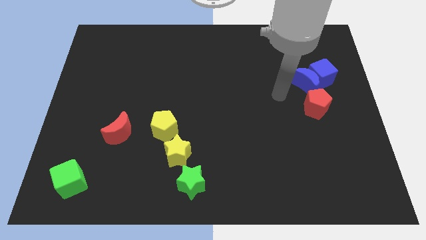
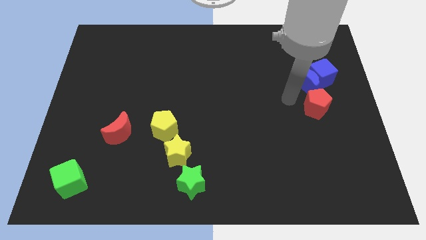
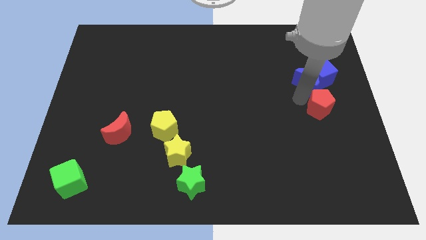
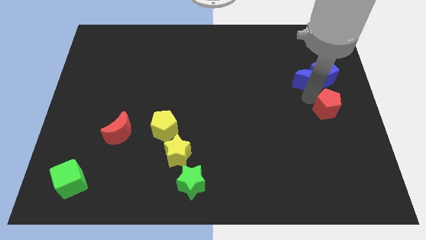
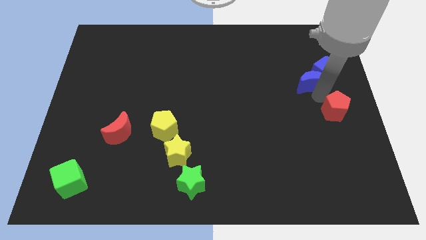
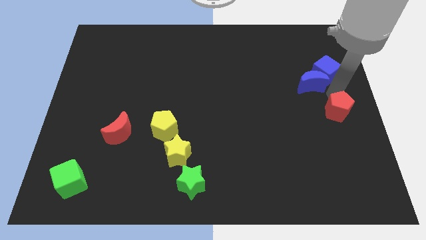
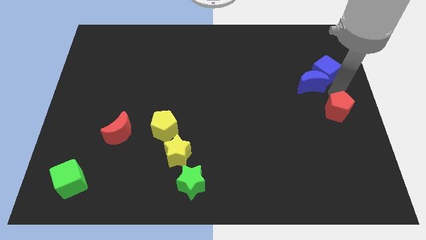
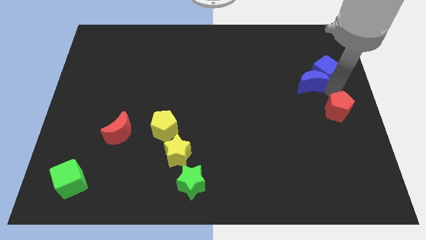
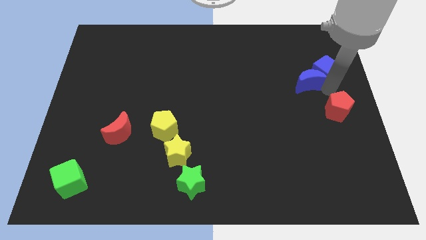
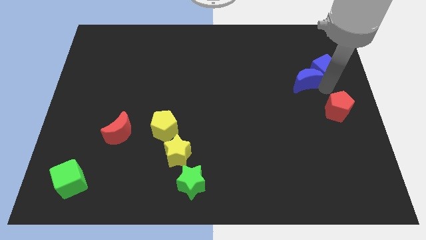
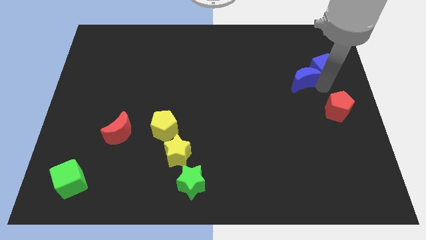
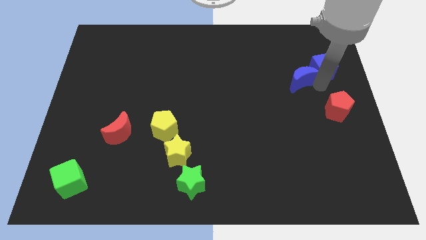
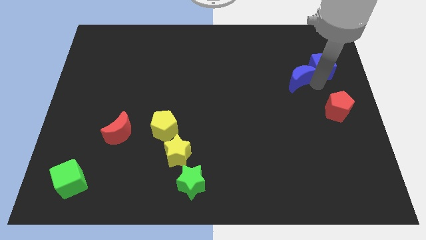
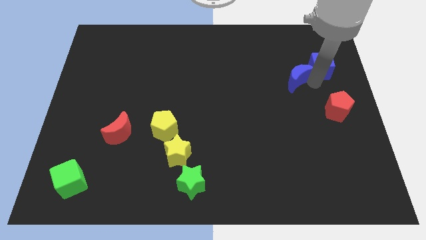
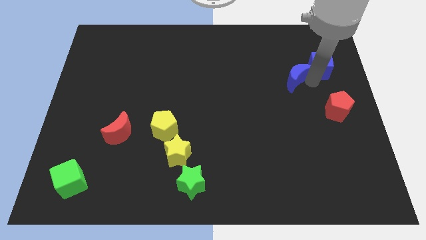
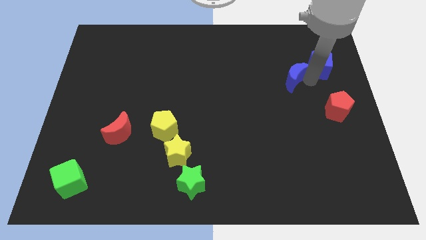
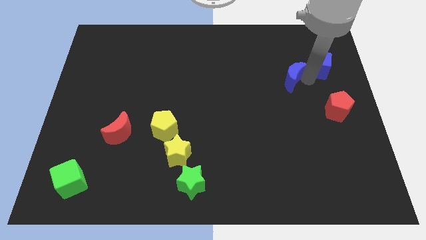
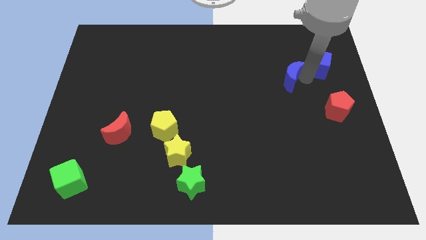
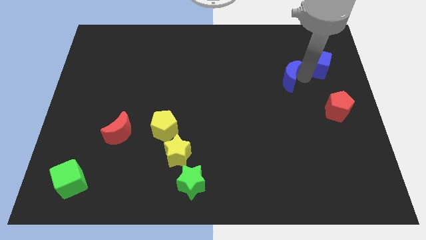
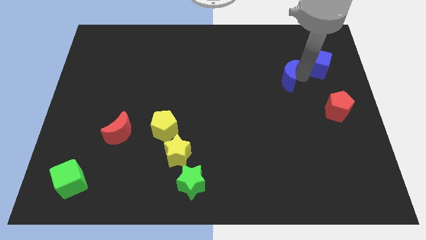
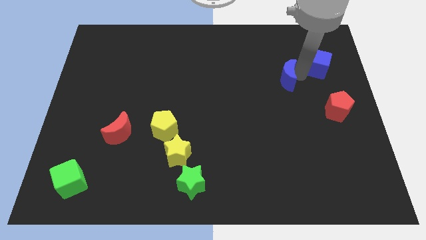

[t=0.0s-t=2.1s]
separate the blue moon from the blue cube and red pentagon

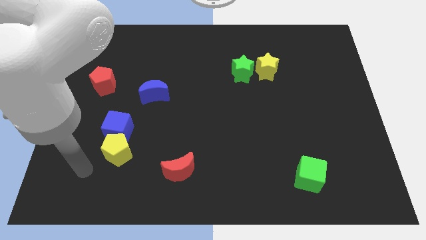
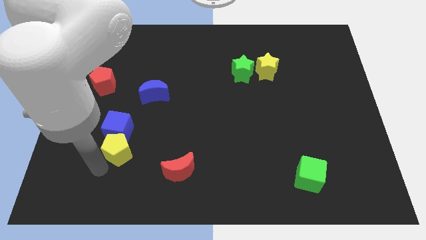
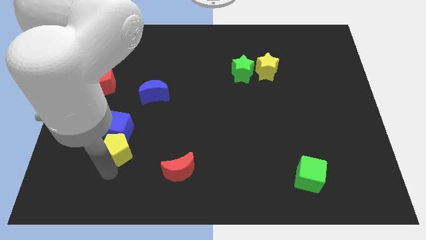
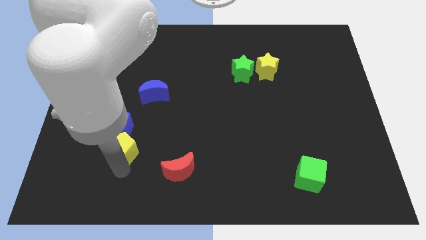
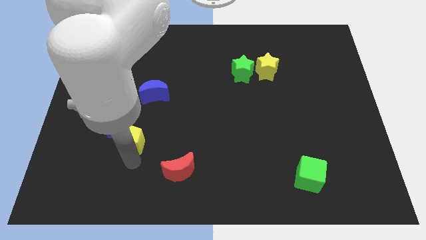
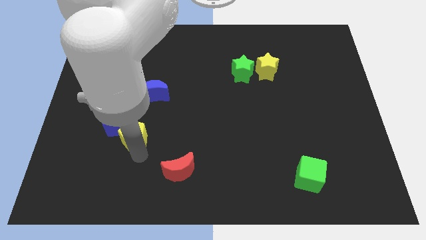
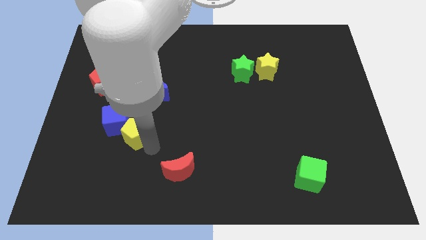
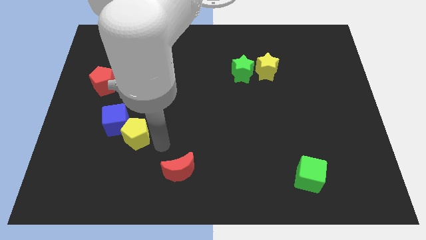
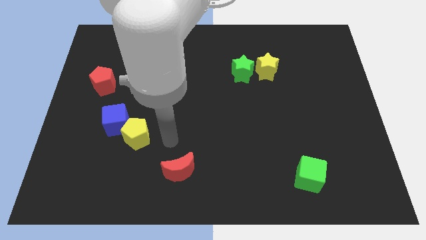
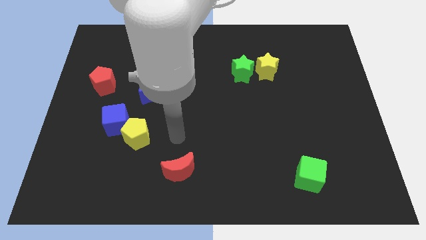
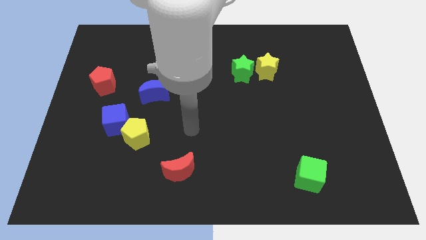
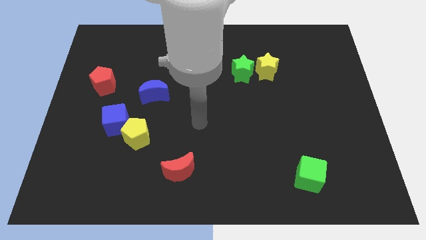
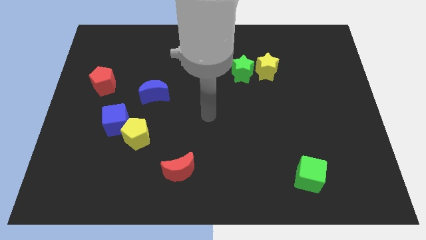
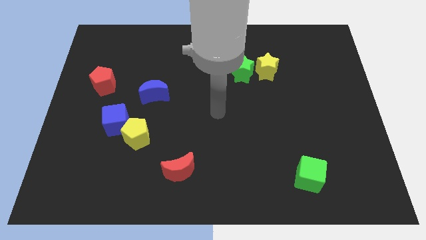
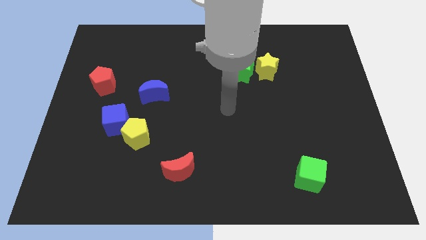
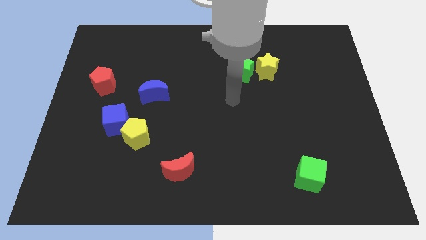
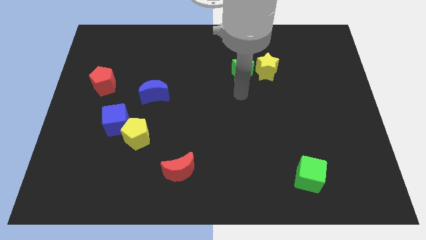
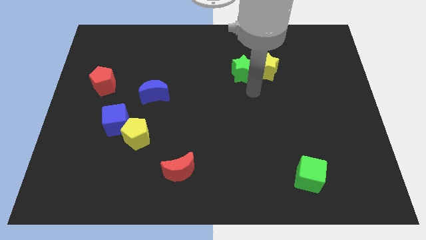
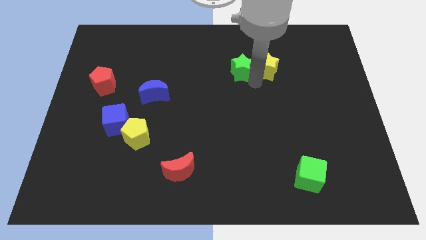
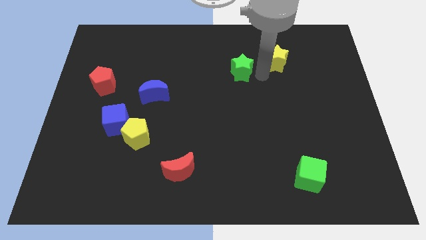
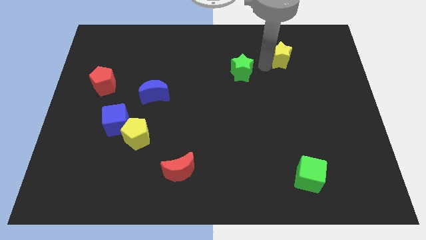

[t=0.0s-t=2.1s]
pull the green star apart from the yellow star

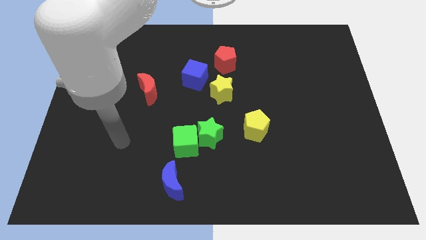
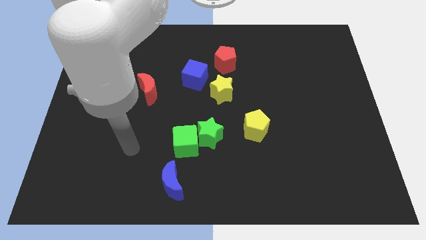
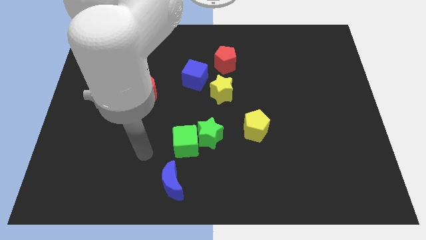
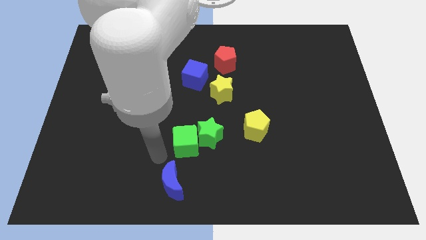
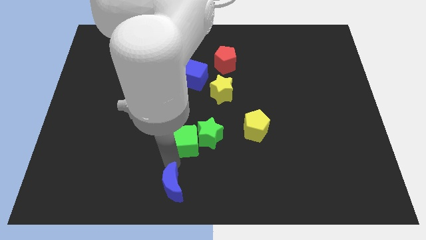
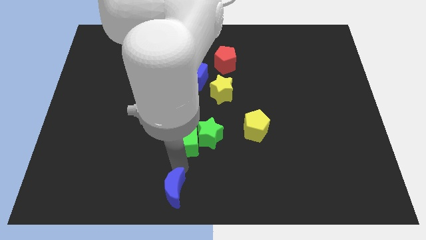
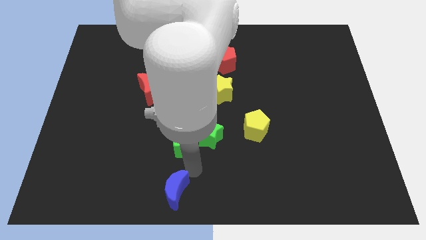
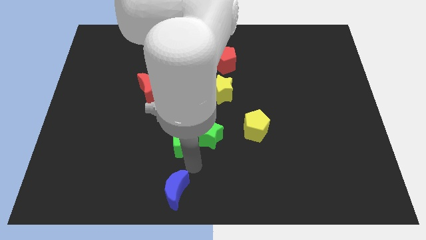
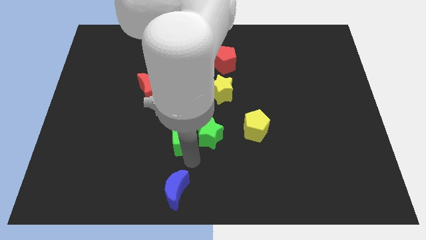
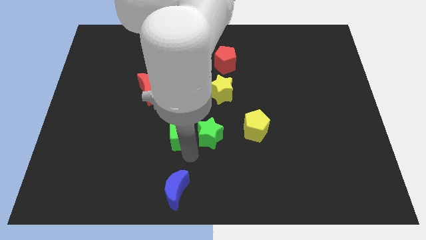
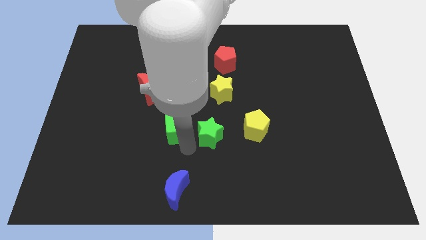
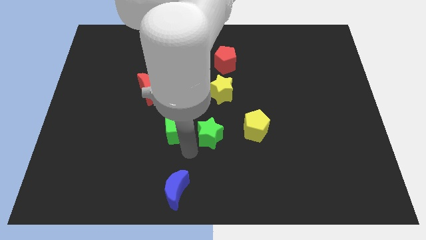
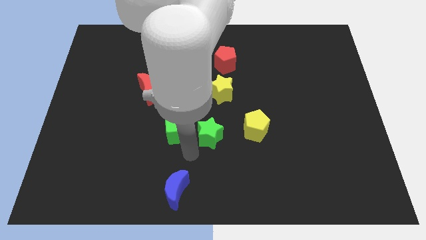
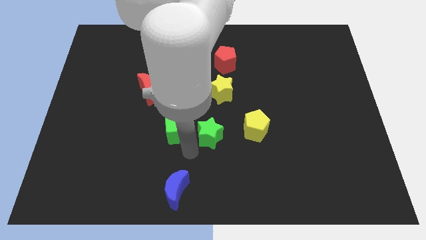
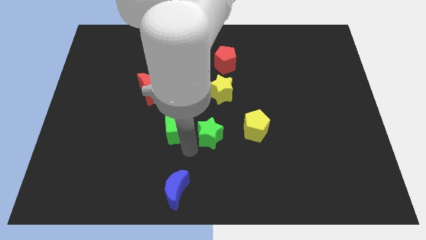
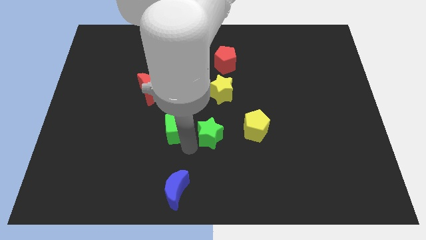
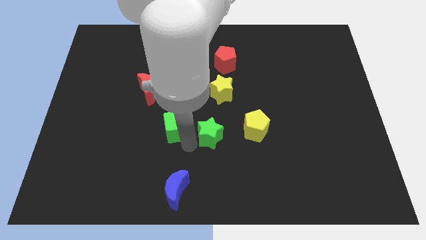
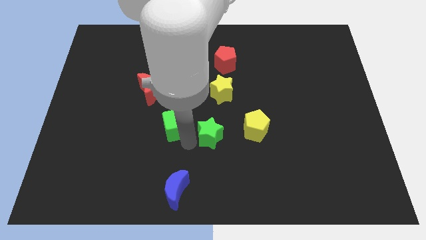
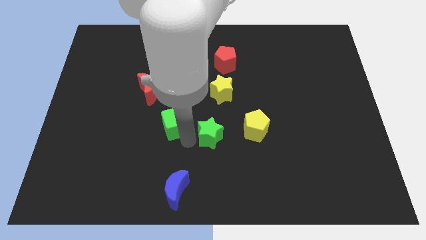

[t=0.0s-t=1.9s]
separate the green cube from the green star and blue moon

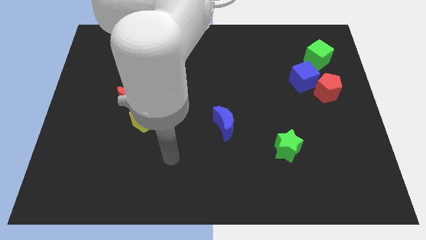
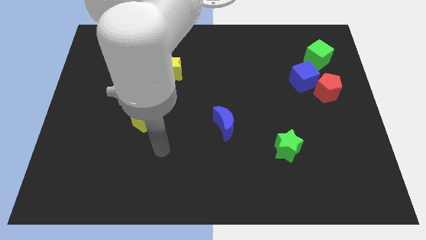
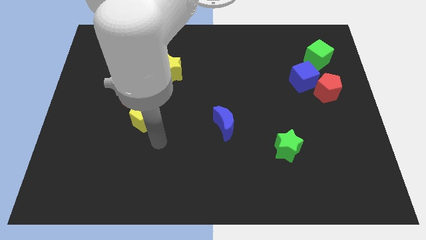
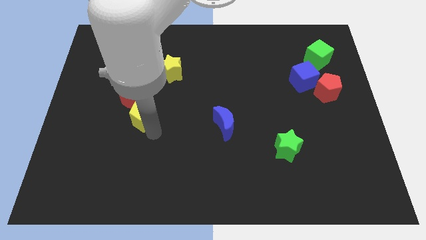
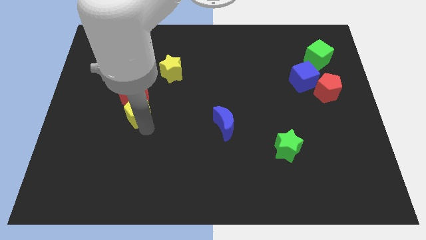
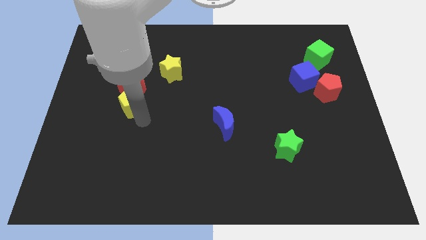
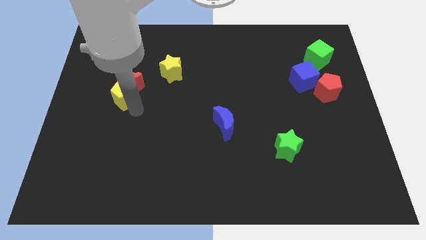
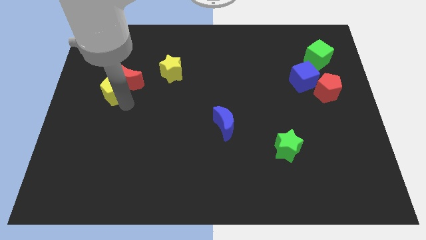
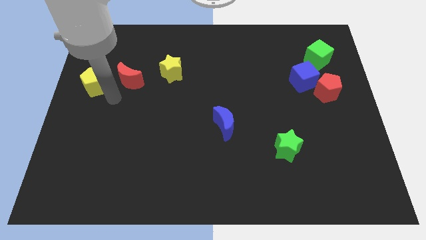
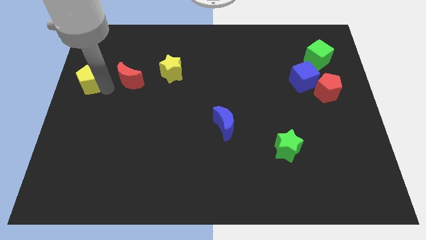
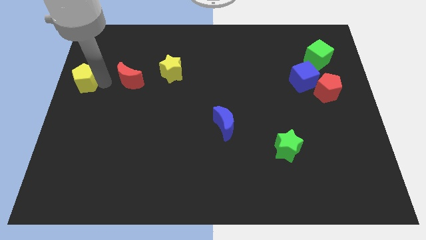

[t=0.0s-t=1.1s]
pull the red moon apart from the yellow pentagon

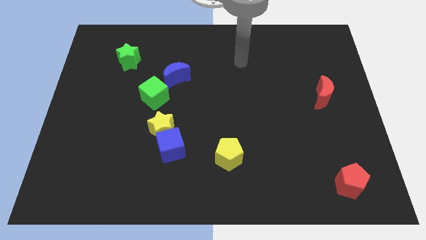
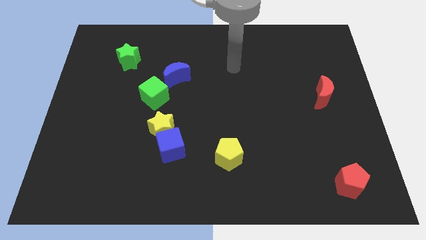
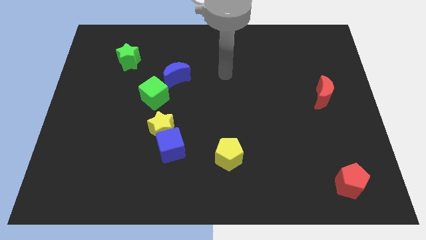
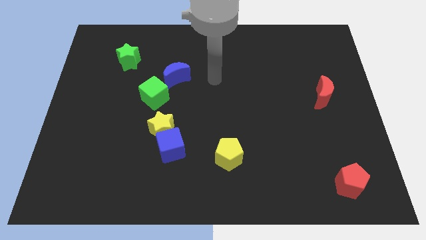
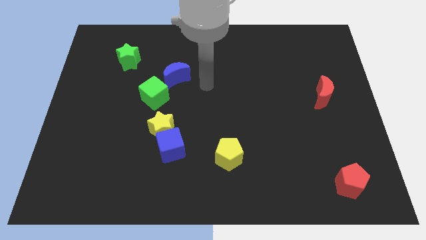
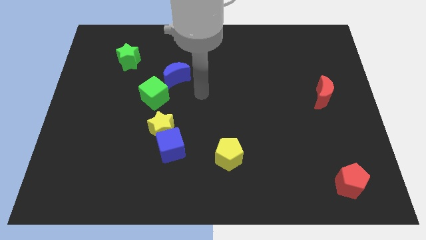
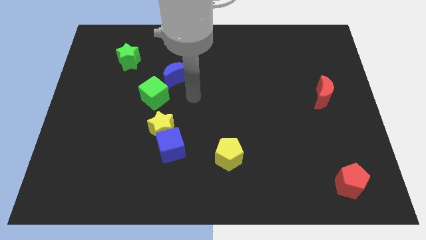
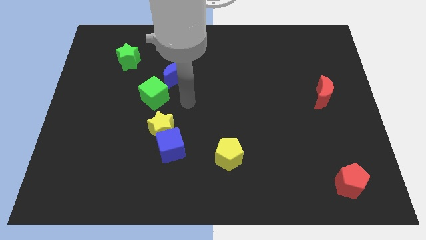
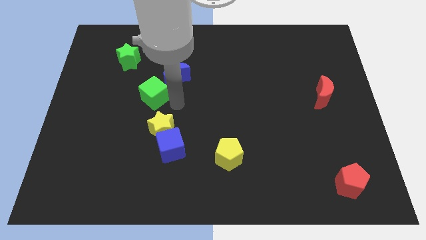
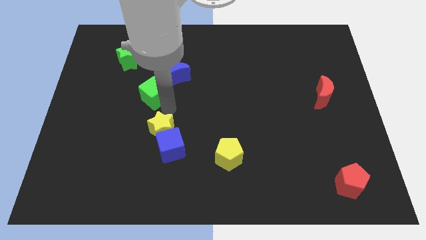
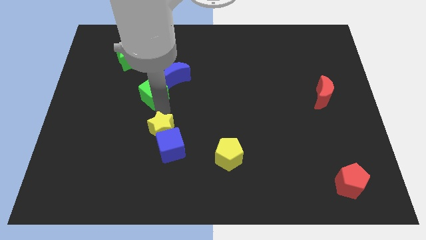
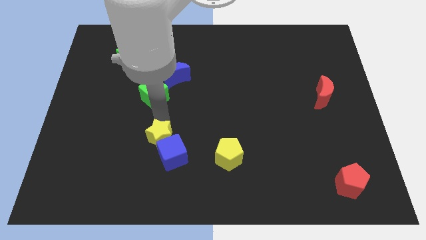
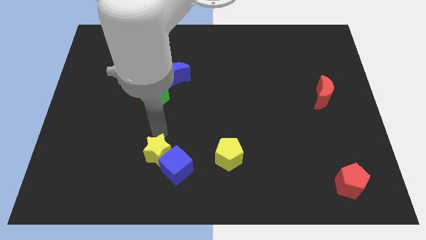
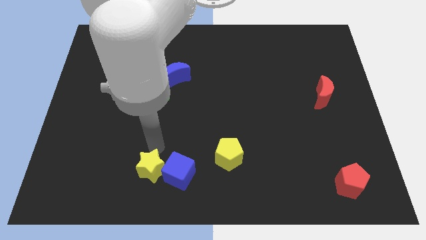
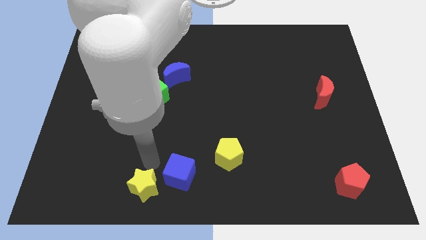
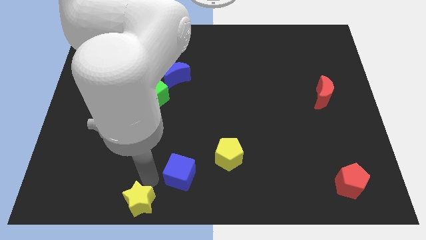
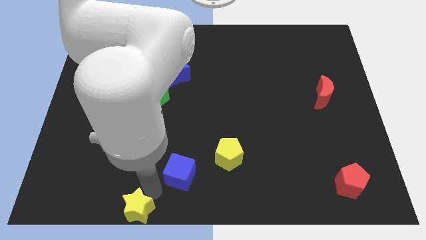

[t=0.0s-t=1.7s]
move the blue cube away from the yellow star

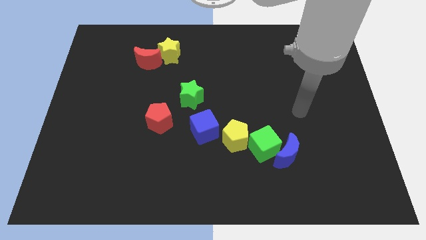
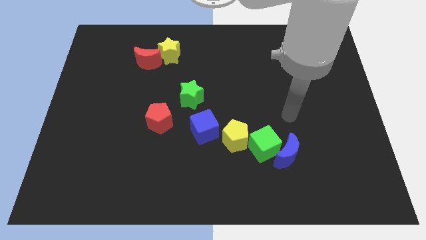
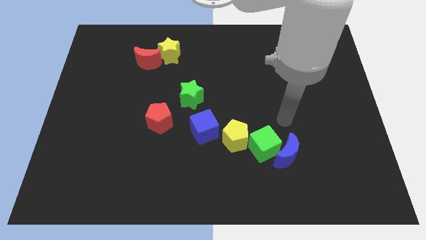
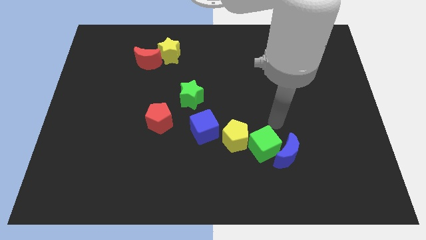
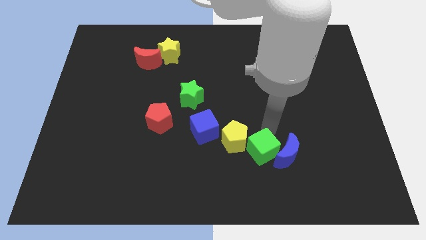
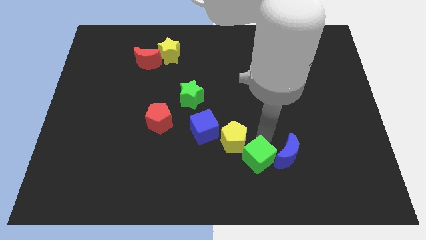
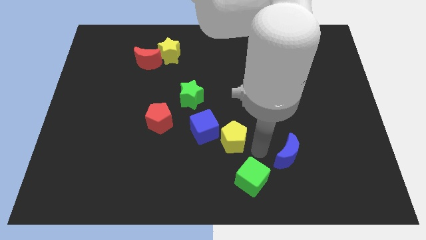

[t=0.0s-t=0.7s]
pull the blue moon apart from the green cube
